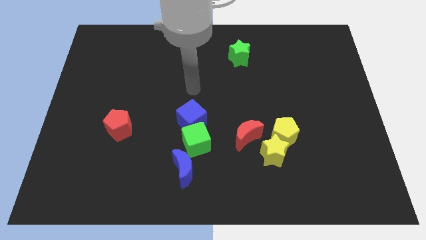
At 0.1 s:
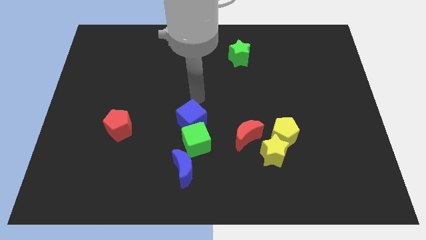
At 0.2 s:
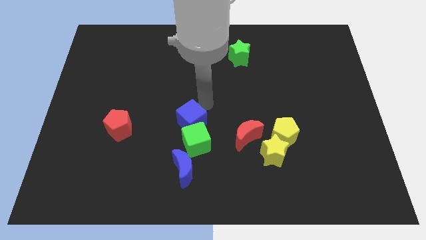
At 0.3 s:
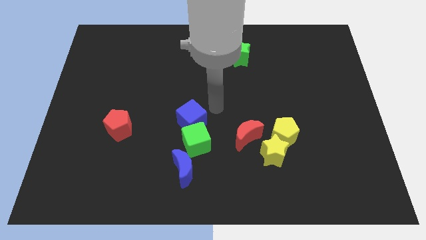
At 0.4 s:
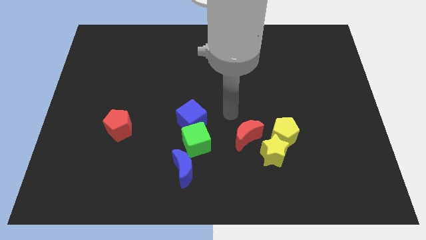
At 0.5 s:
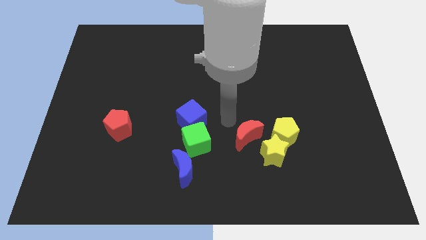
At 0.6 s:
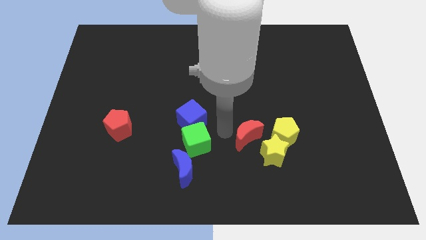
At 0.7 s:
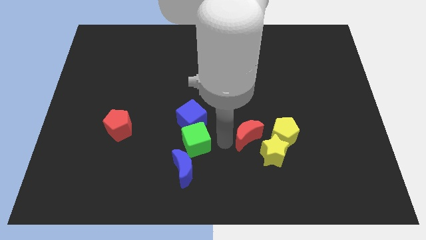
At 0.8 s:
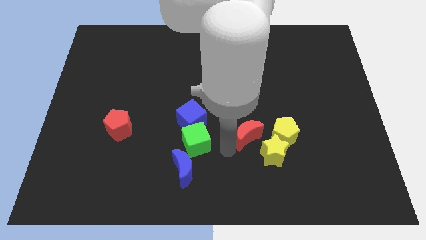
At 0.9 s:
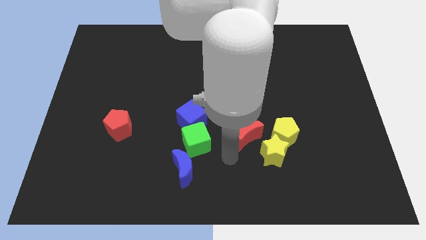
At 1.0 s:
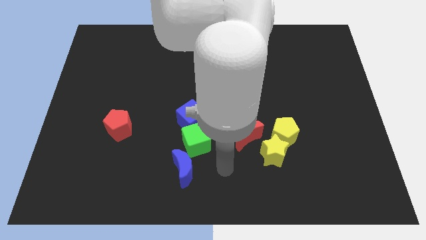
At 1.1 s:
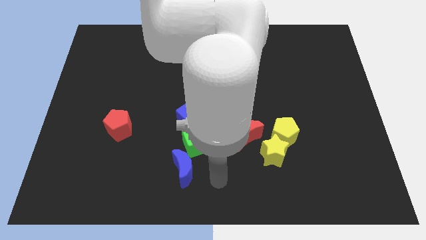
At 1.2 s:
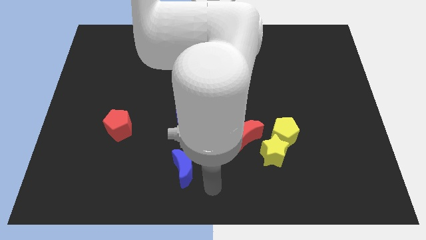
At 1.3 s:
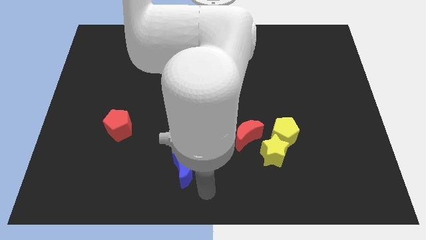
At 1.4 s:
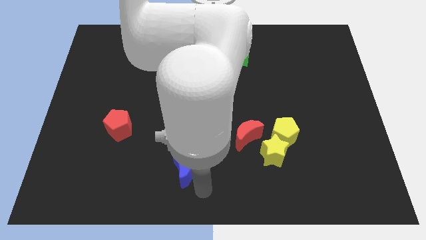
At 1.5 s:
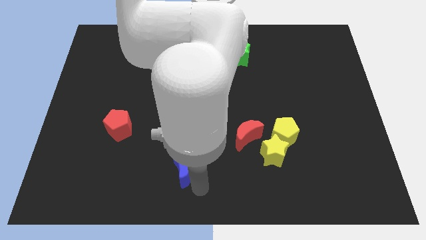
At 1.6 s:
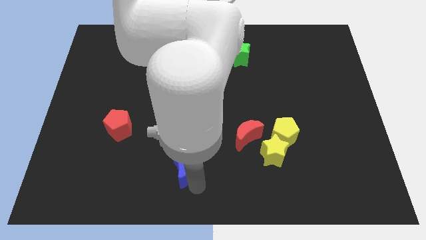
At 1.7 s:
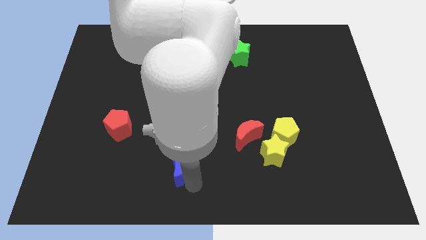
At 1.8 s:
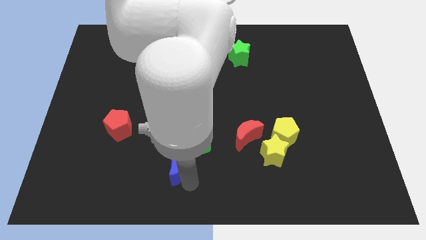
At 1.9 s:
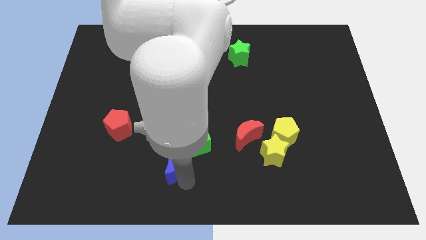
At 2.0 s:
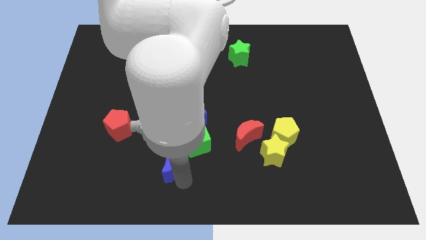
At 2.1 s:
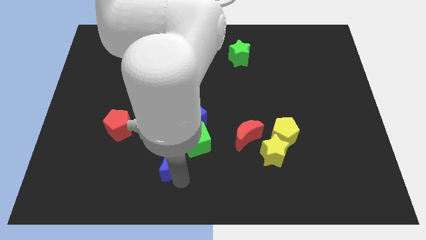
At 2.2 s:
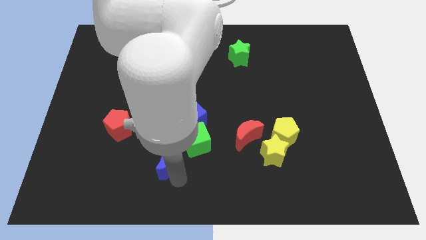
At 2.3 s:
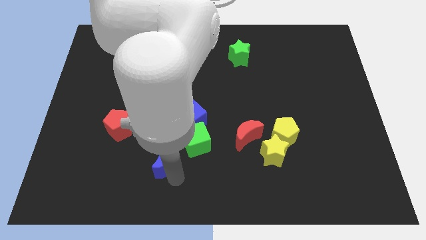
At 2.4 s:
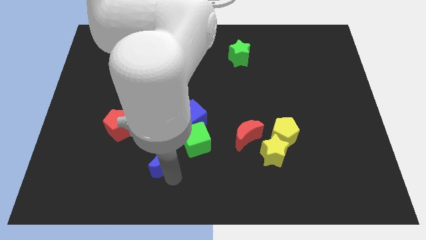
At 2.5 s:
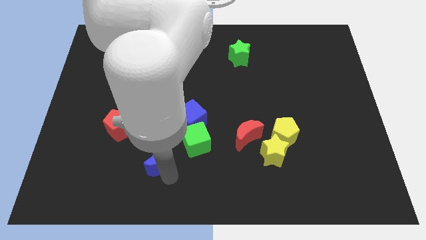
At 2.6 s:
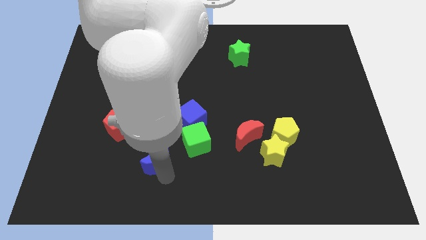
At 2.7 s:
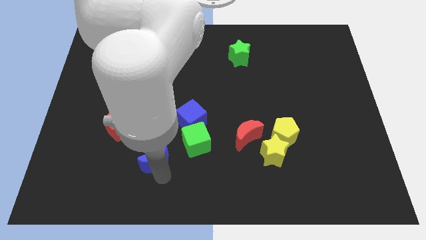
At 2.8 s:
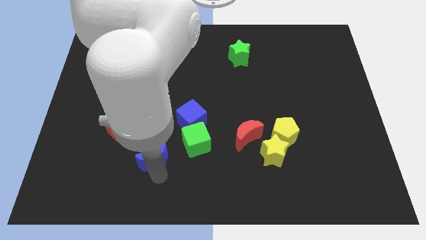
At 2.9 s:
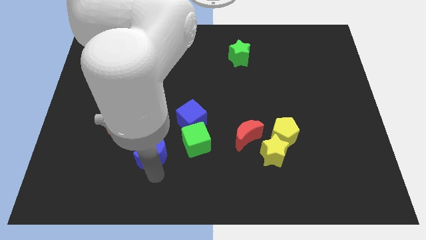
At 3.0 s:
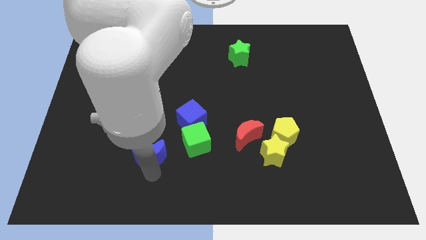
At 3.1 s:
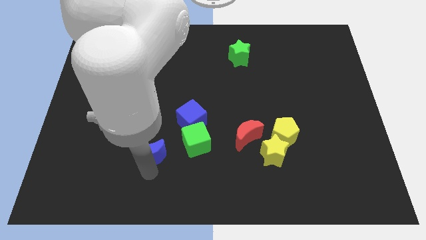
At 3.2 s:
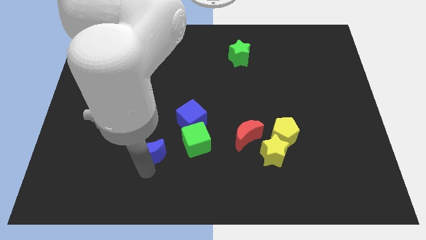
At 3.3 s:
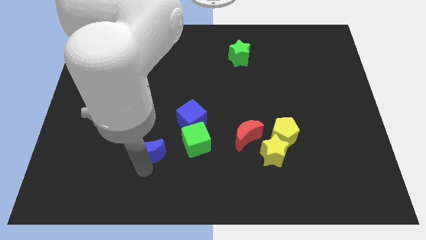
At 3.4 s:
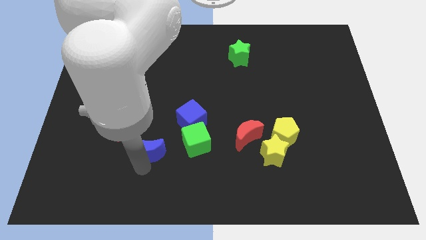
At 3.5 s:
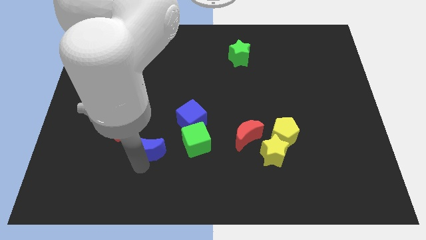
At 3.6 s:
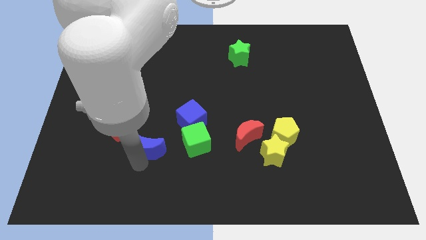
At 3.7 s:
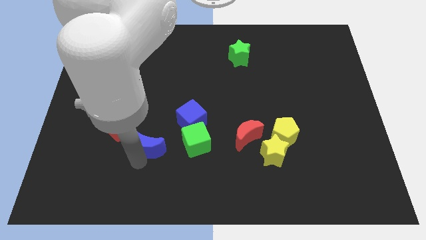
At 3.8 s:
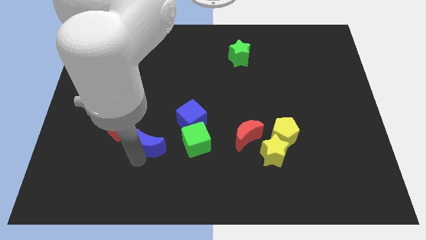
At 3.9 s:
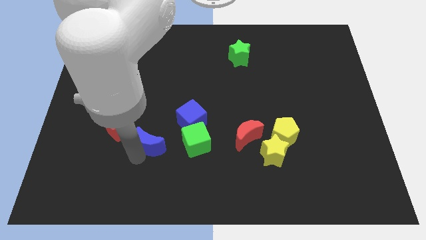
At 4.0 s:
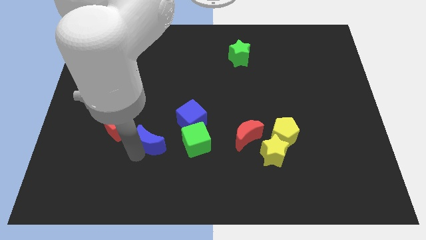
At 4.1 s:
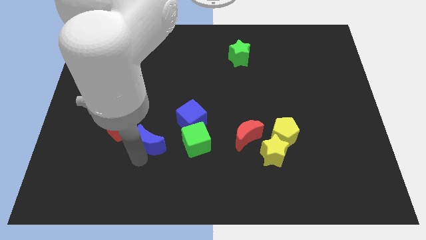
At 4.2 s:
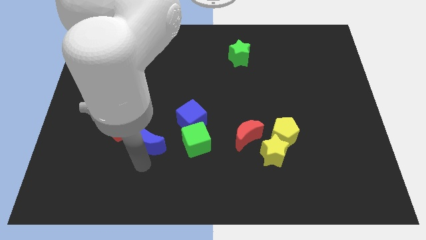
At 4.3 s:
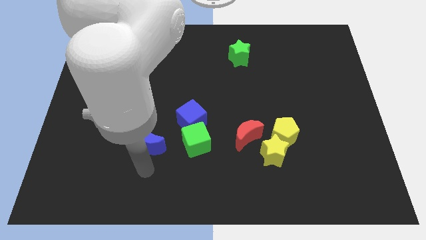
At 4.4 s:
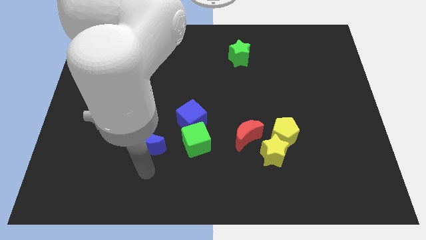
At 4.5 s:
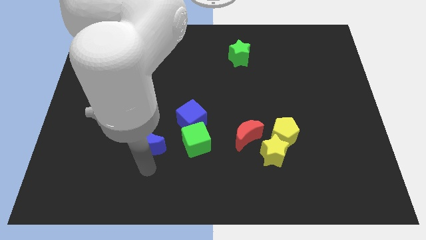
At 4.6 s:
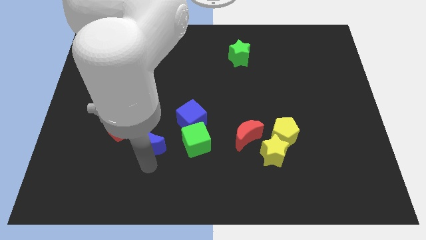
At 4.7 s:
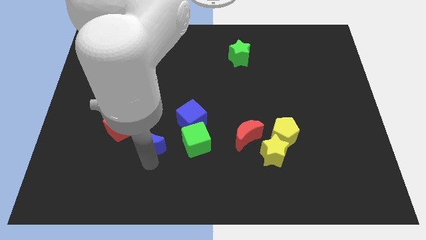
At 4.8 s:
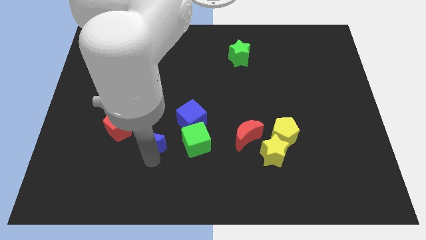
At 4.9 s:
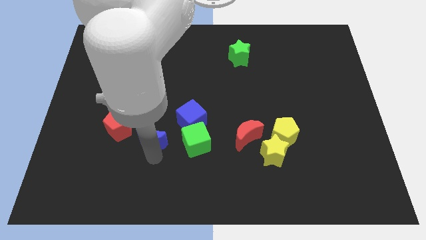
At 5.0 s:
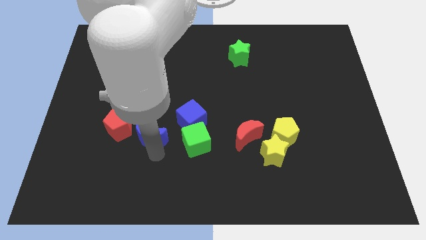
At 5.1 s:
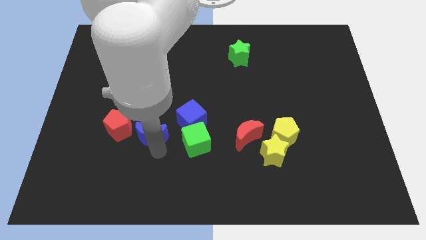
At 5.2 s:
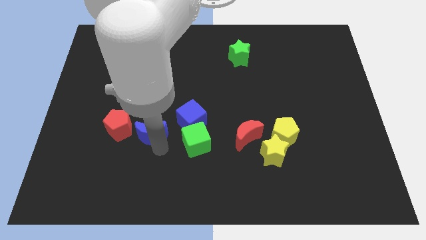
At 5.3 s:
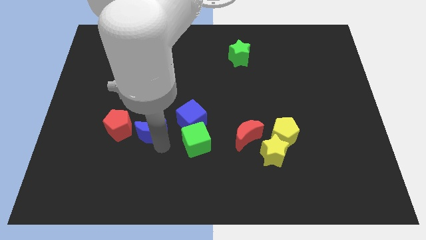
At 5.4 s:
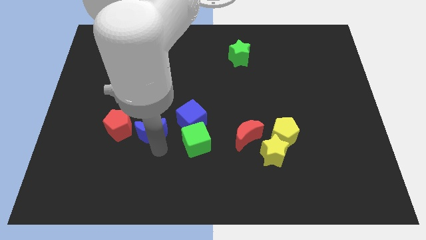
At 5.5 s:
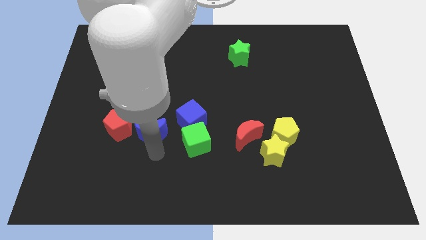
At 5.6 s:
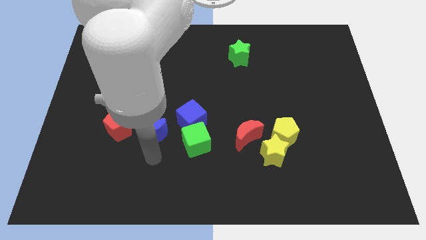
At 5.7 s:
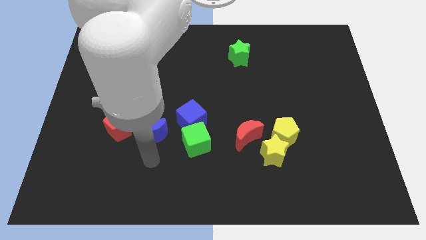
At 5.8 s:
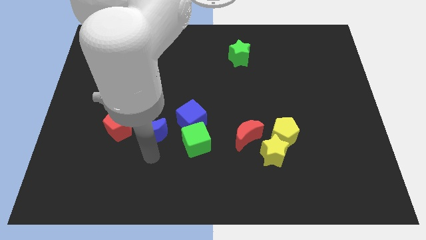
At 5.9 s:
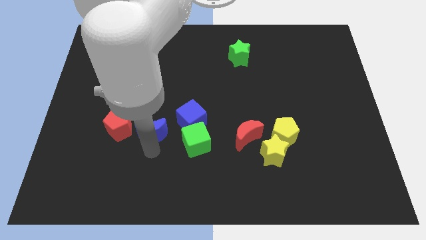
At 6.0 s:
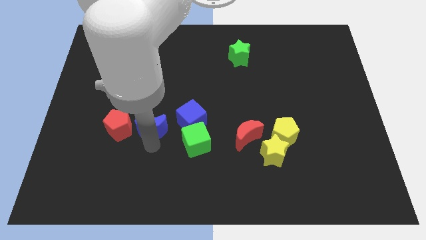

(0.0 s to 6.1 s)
push the blue moon a little upwards

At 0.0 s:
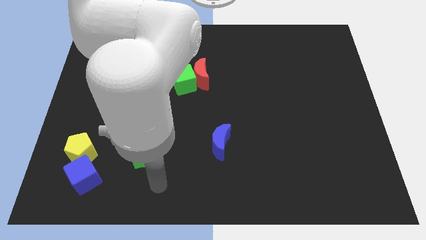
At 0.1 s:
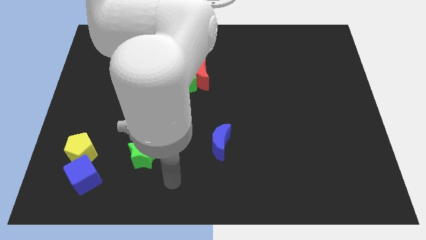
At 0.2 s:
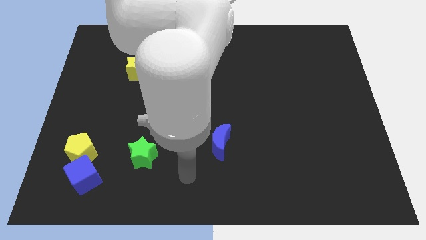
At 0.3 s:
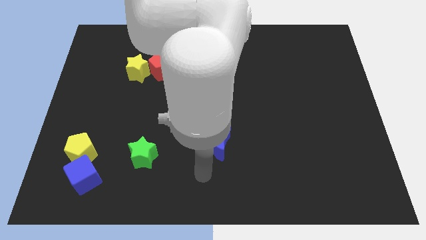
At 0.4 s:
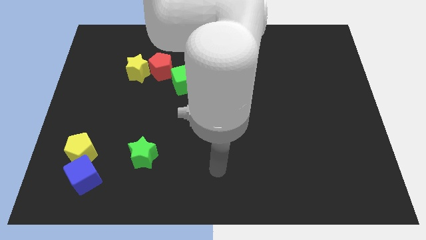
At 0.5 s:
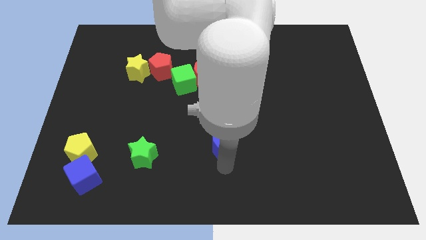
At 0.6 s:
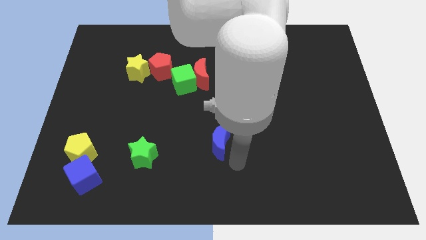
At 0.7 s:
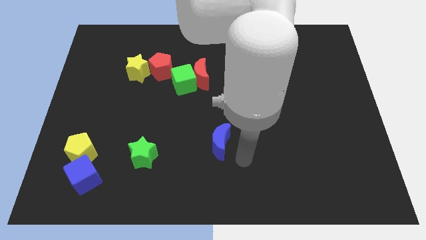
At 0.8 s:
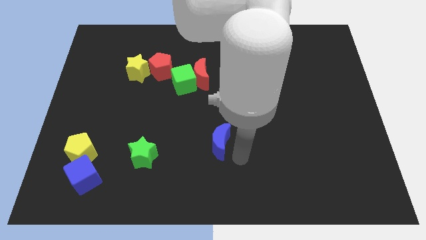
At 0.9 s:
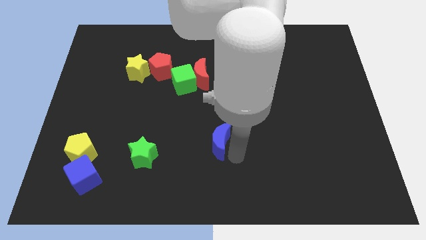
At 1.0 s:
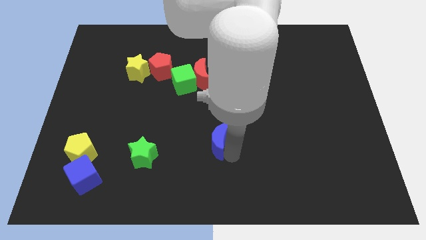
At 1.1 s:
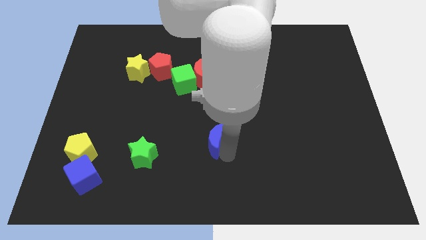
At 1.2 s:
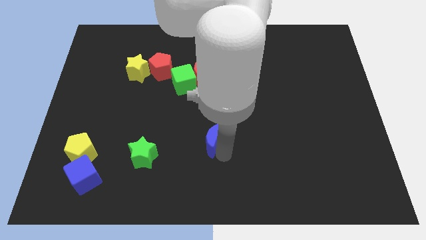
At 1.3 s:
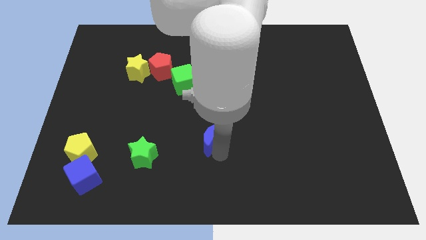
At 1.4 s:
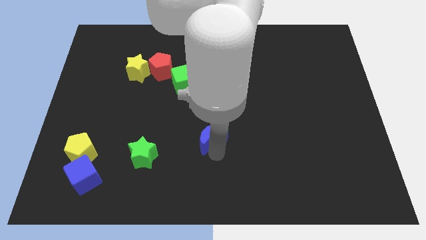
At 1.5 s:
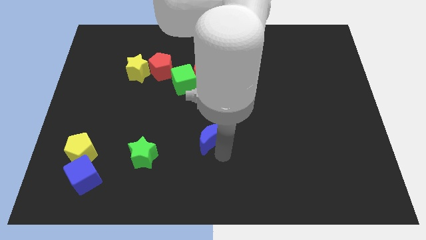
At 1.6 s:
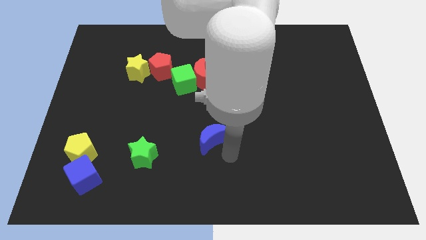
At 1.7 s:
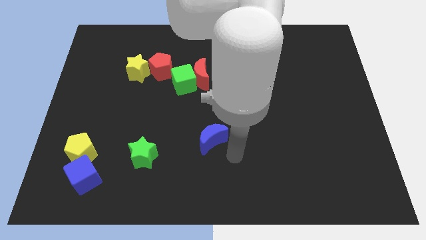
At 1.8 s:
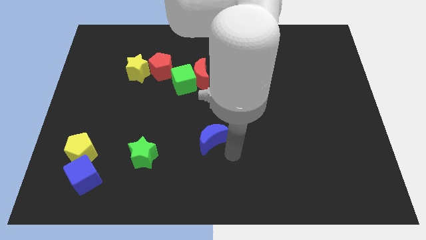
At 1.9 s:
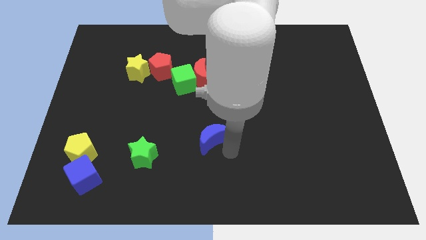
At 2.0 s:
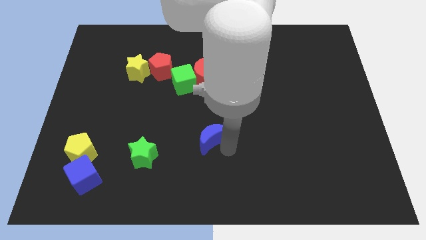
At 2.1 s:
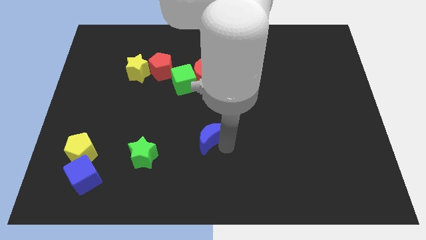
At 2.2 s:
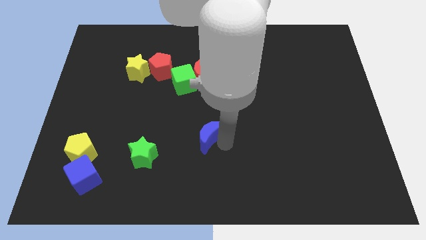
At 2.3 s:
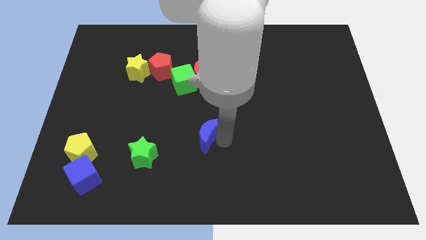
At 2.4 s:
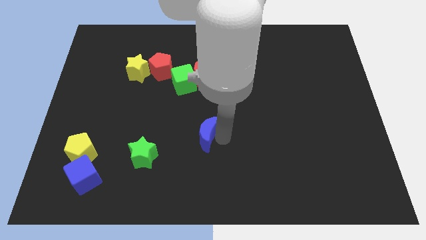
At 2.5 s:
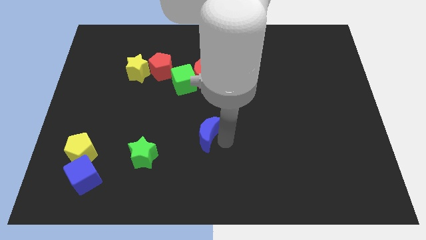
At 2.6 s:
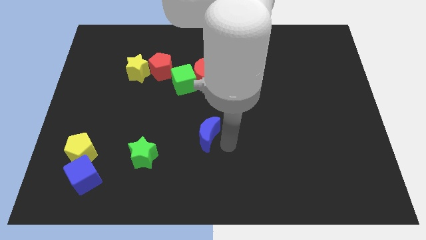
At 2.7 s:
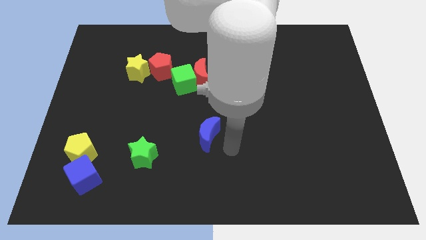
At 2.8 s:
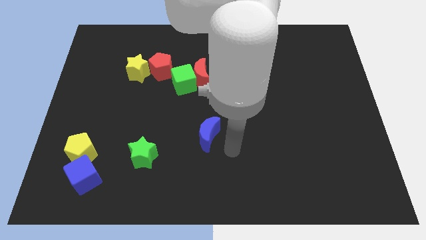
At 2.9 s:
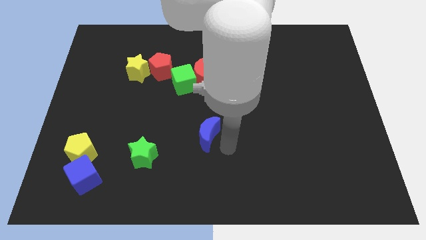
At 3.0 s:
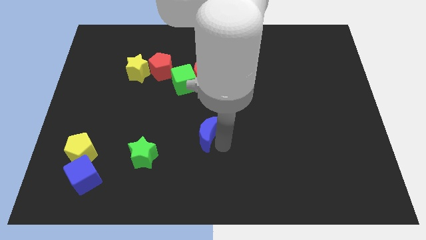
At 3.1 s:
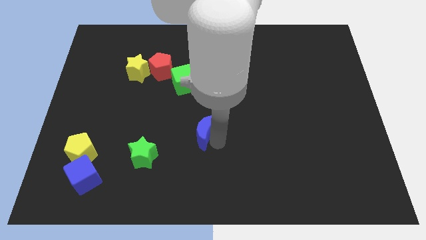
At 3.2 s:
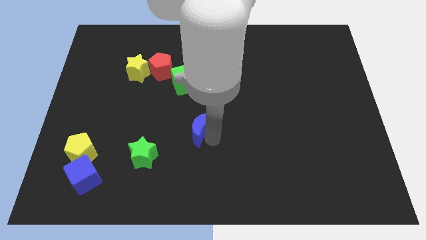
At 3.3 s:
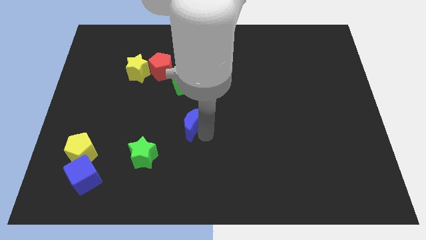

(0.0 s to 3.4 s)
push the blue moon a little up and left diagonally
